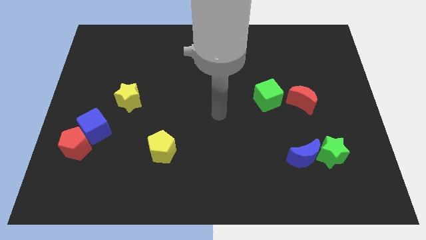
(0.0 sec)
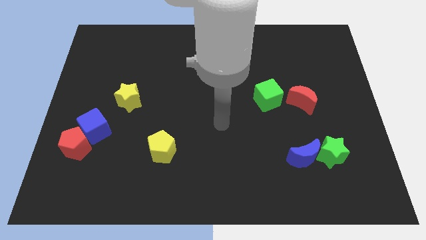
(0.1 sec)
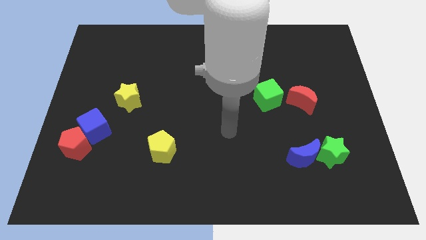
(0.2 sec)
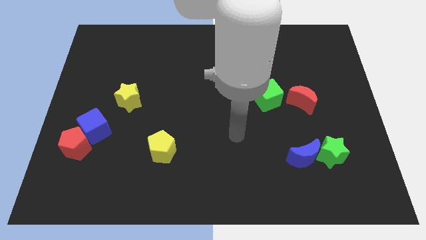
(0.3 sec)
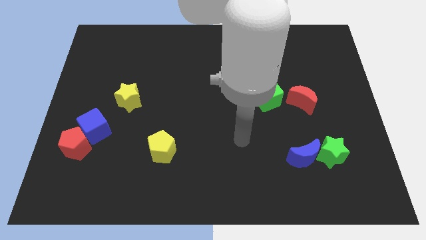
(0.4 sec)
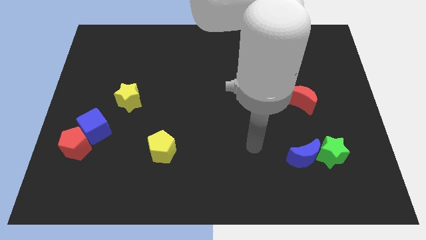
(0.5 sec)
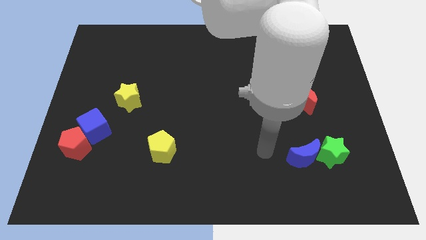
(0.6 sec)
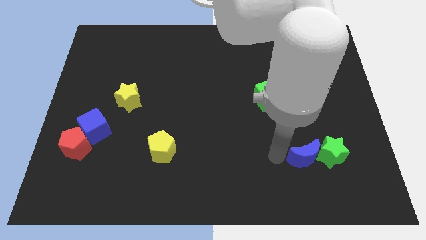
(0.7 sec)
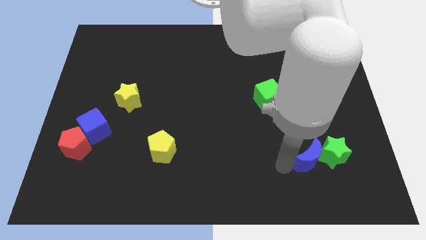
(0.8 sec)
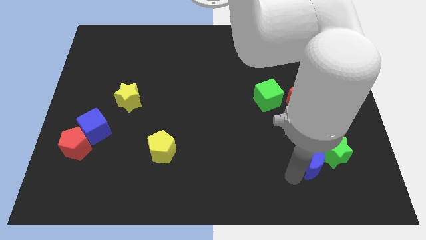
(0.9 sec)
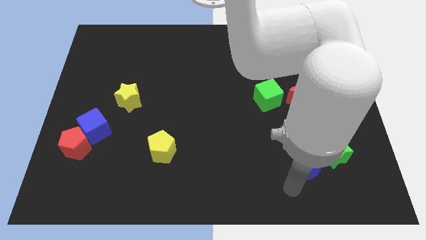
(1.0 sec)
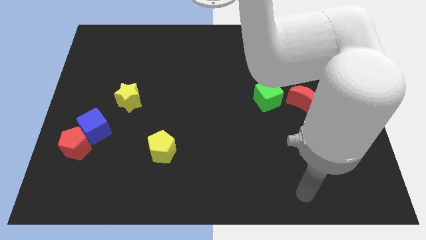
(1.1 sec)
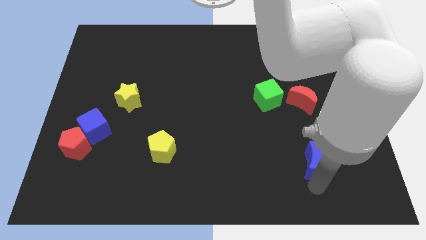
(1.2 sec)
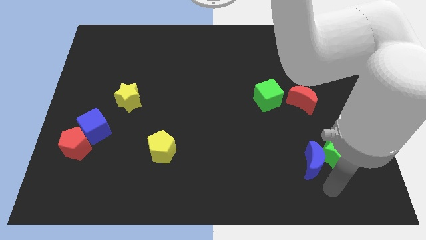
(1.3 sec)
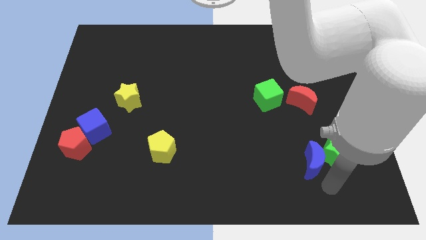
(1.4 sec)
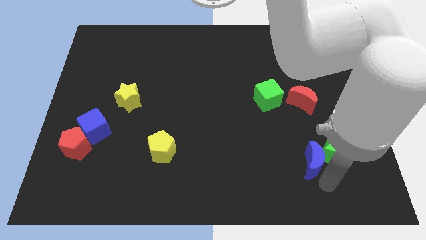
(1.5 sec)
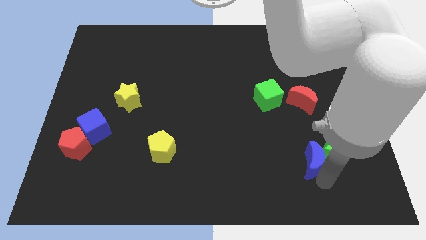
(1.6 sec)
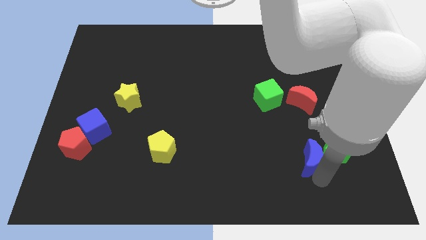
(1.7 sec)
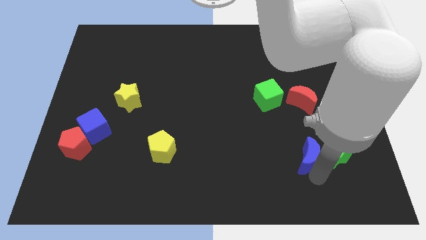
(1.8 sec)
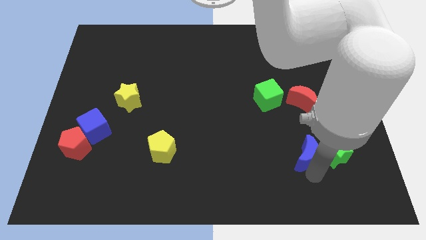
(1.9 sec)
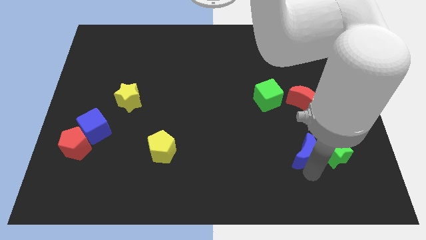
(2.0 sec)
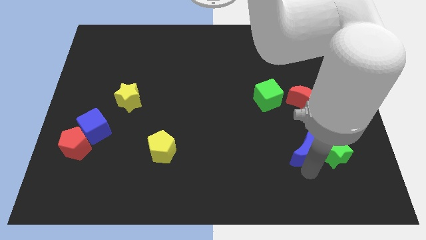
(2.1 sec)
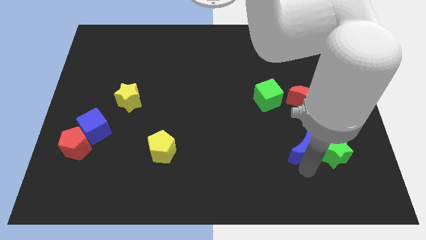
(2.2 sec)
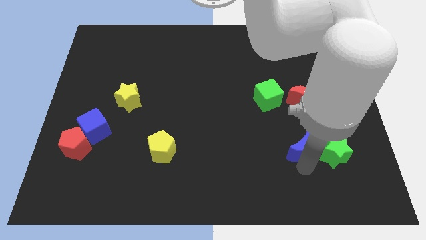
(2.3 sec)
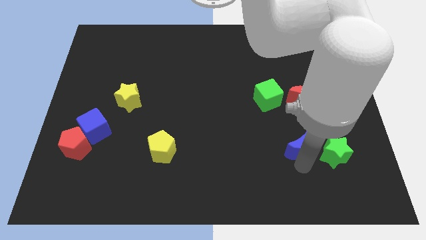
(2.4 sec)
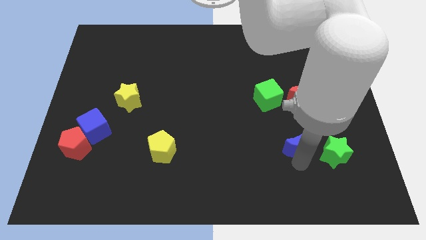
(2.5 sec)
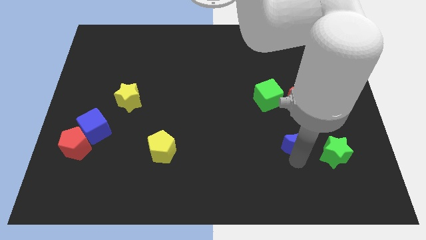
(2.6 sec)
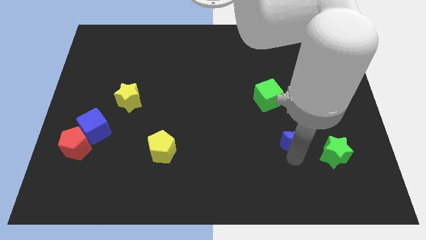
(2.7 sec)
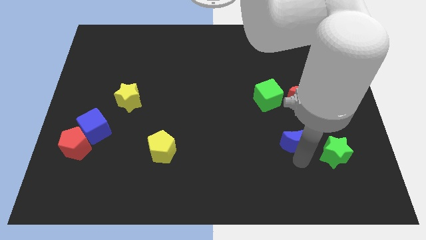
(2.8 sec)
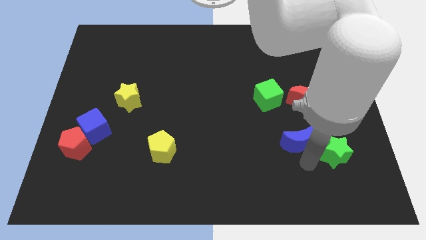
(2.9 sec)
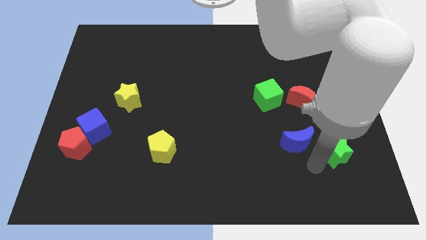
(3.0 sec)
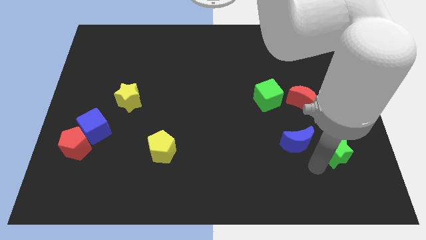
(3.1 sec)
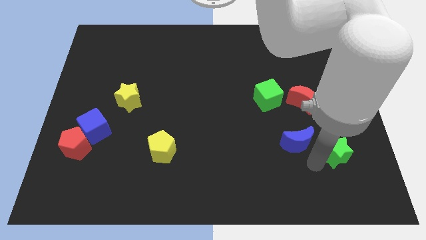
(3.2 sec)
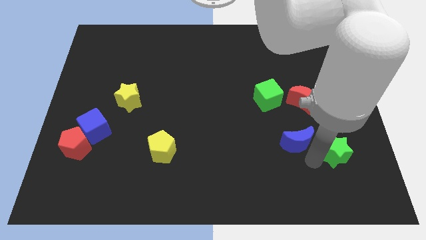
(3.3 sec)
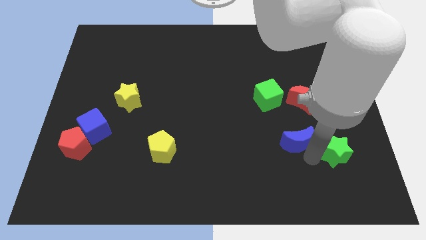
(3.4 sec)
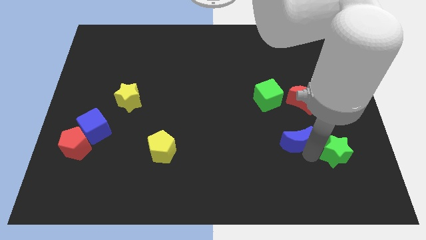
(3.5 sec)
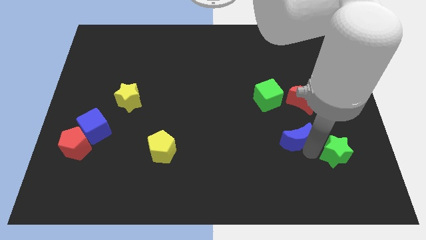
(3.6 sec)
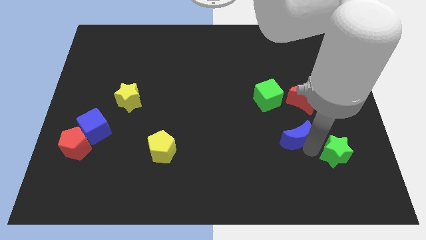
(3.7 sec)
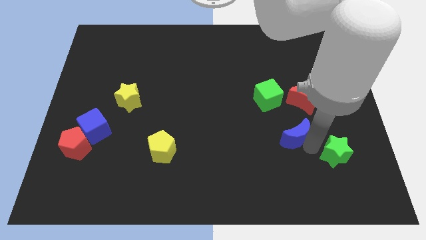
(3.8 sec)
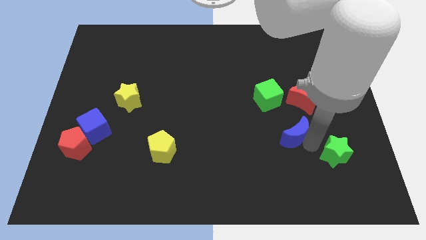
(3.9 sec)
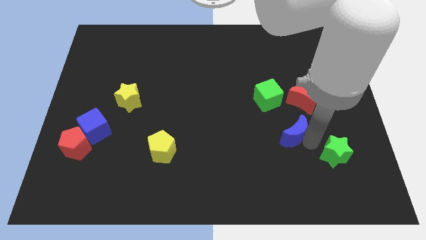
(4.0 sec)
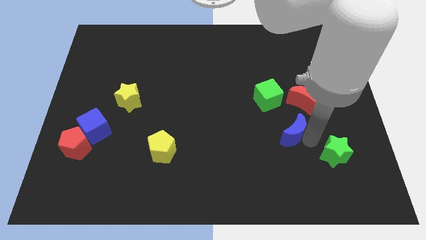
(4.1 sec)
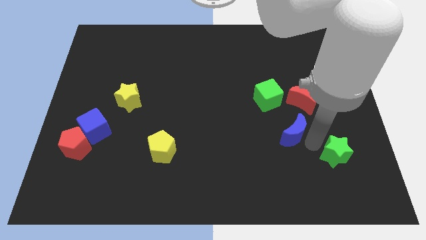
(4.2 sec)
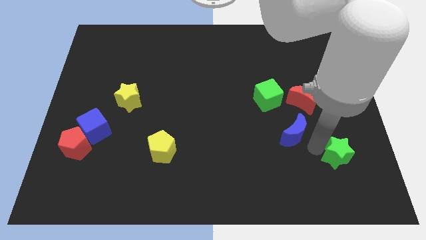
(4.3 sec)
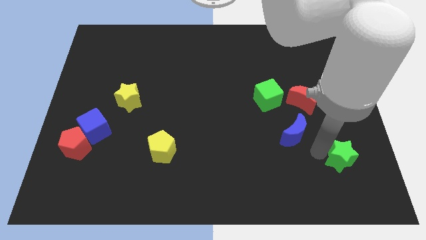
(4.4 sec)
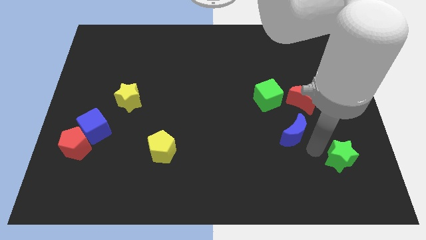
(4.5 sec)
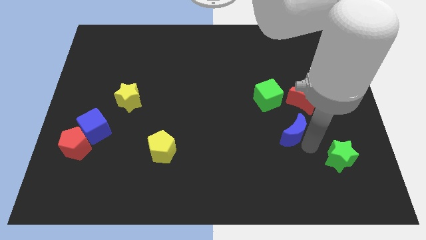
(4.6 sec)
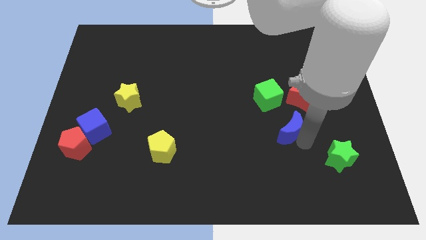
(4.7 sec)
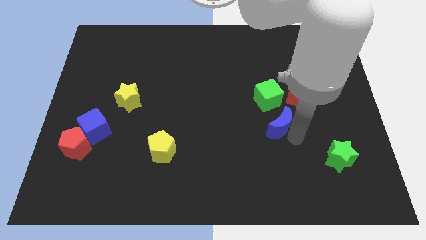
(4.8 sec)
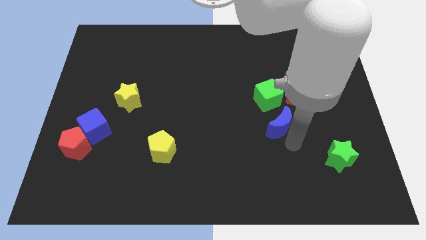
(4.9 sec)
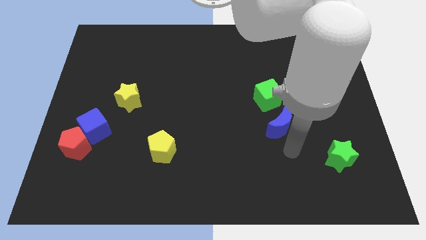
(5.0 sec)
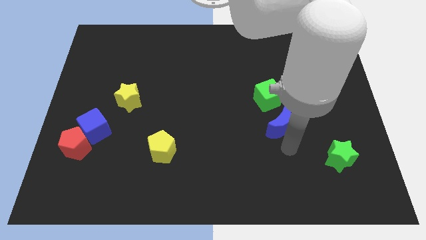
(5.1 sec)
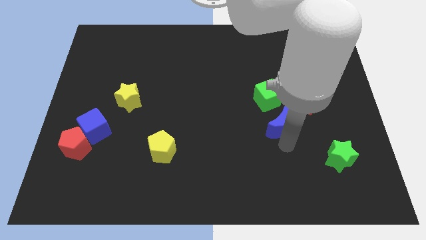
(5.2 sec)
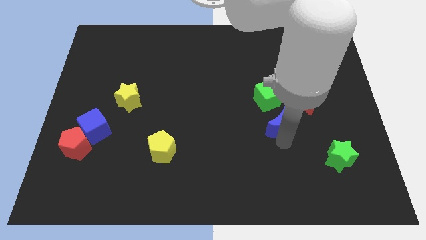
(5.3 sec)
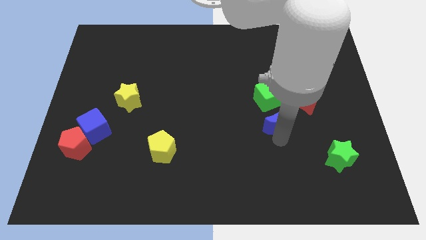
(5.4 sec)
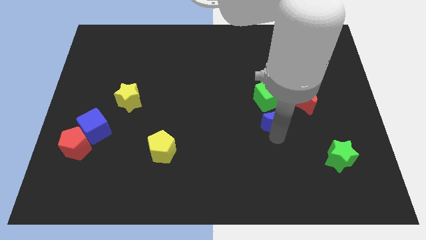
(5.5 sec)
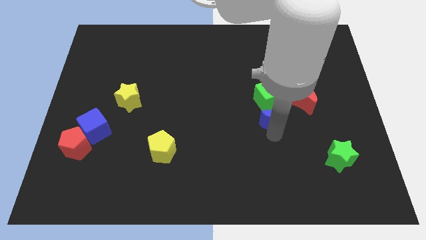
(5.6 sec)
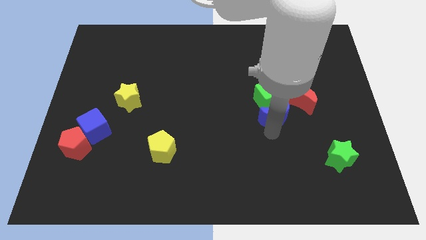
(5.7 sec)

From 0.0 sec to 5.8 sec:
move the blue moon close to the green cube

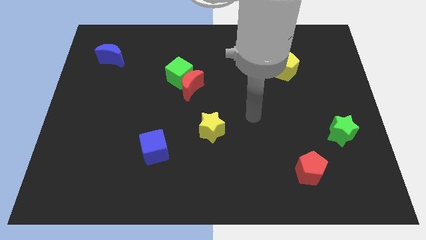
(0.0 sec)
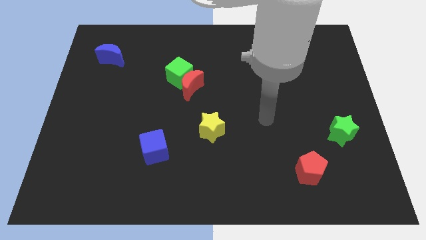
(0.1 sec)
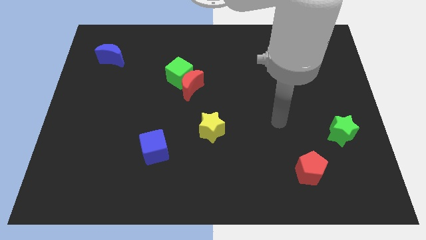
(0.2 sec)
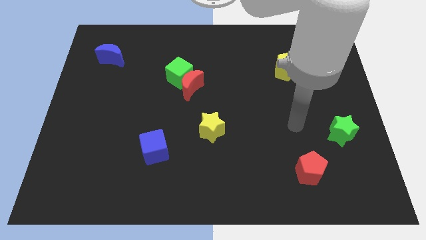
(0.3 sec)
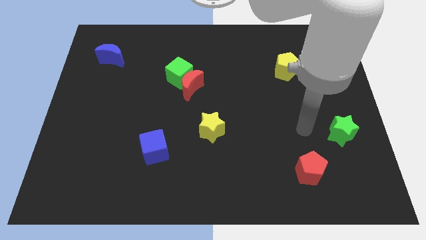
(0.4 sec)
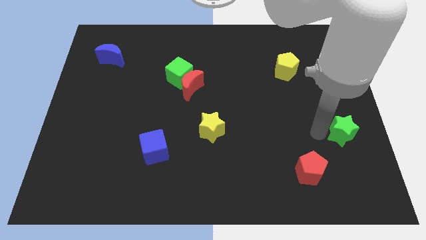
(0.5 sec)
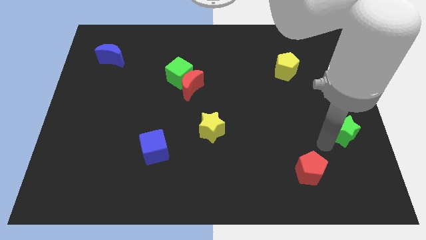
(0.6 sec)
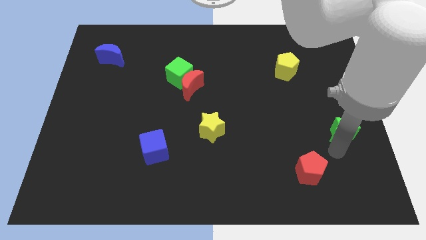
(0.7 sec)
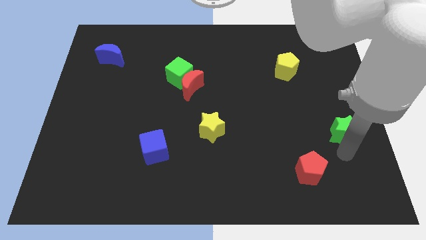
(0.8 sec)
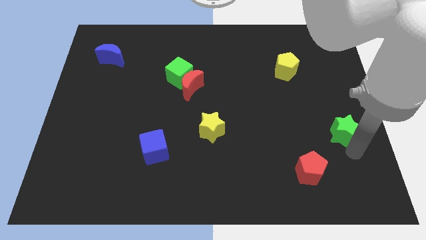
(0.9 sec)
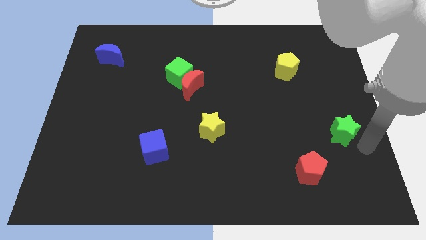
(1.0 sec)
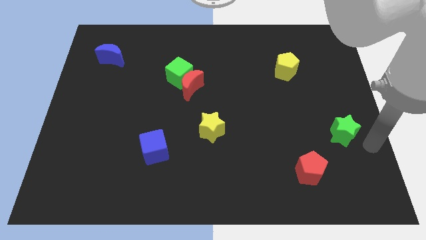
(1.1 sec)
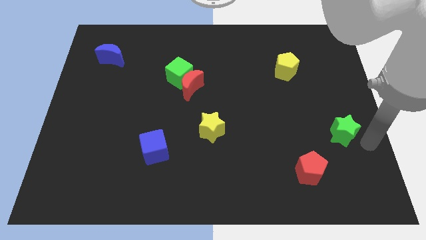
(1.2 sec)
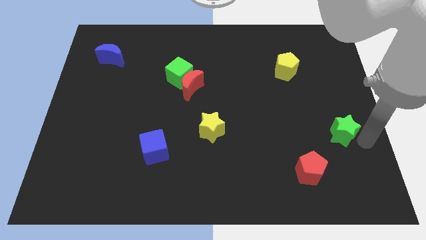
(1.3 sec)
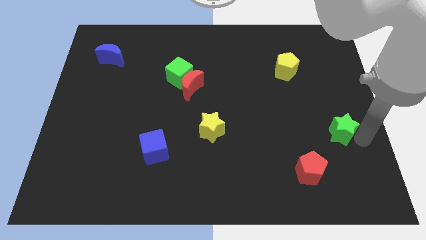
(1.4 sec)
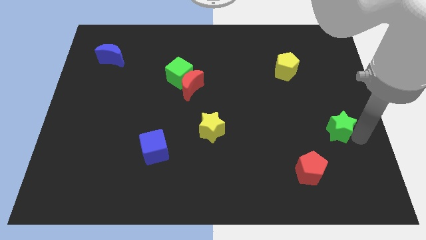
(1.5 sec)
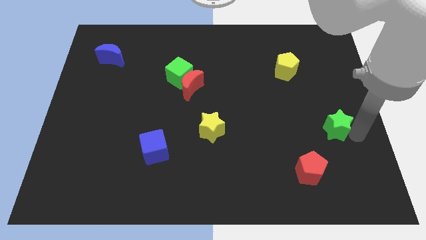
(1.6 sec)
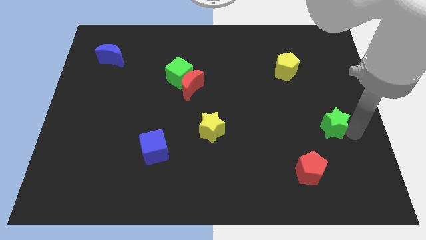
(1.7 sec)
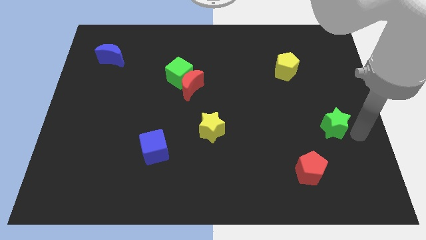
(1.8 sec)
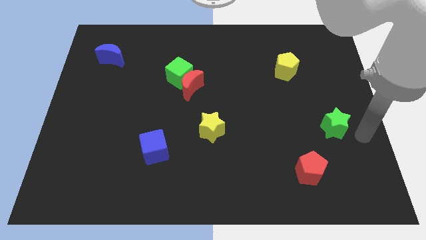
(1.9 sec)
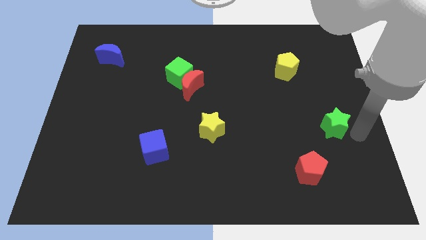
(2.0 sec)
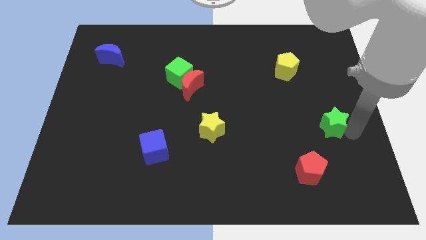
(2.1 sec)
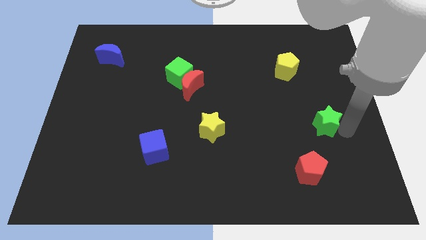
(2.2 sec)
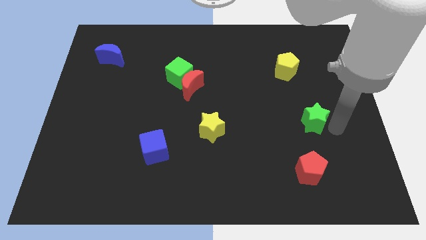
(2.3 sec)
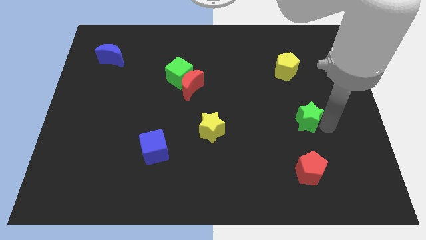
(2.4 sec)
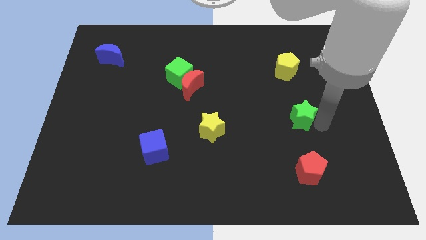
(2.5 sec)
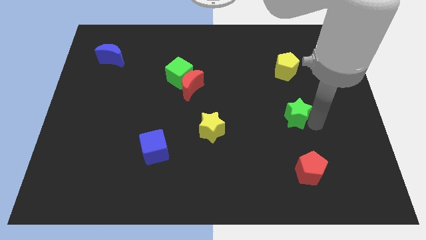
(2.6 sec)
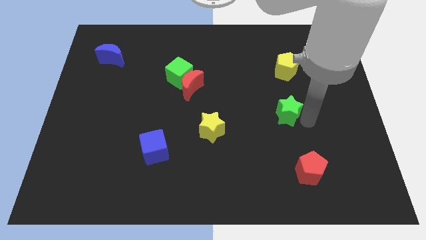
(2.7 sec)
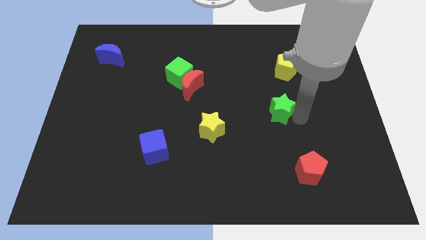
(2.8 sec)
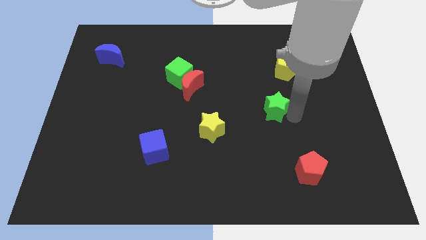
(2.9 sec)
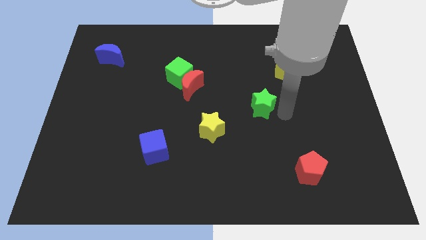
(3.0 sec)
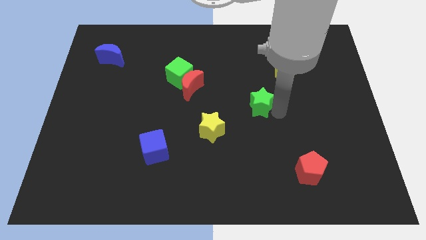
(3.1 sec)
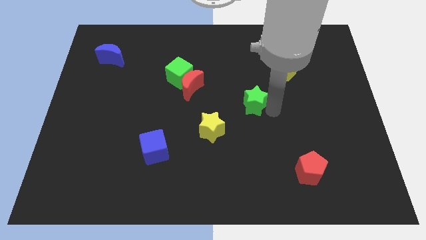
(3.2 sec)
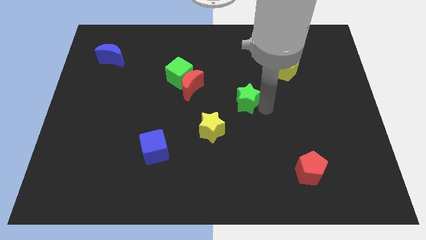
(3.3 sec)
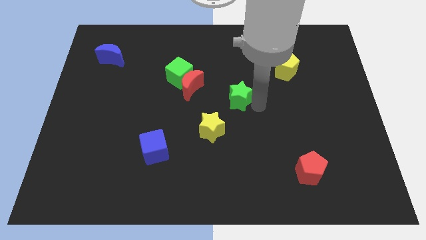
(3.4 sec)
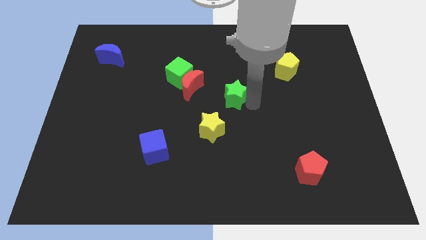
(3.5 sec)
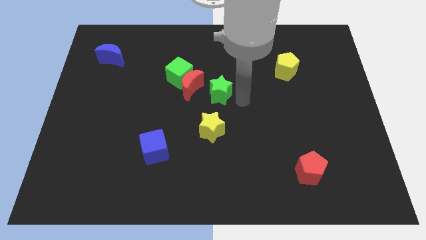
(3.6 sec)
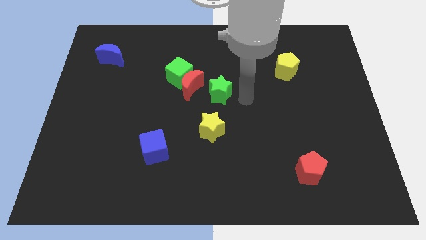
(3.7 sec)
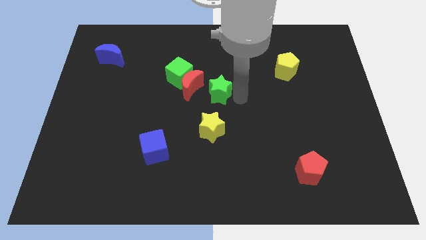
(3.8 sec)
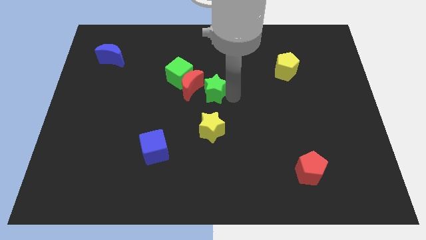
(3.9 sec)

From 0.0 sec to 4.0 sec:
slide the green star towards the red moon
